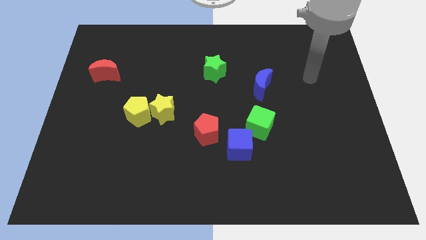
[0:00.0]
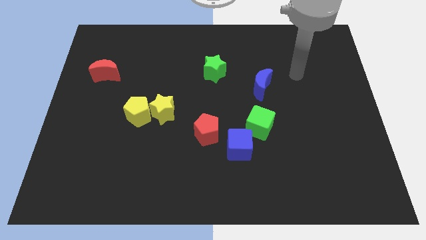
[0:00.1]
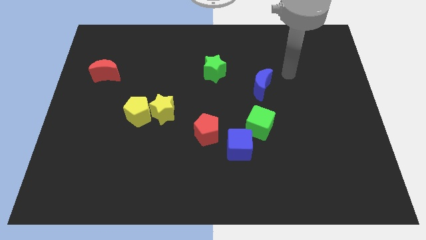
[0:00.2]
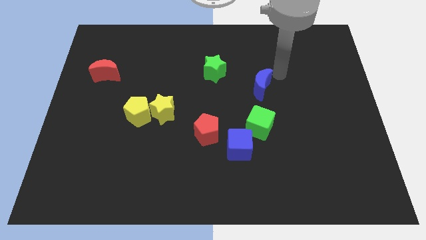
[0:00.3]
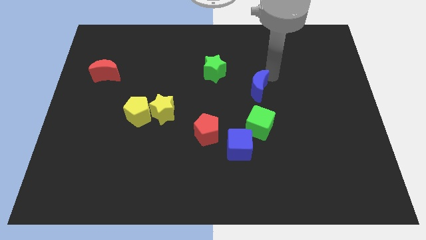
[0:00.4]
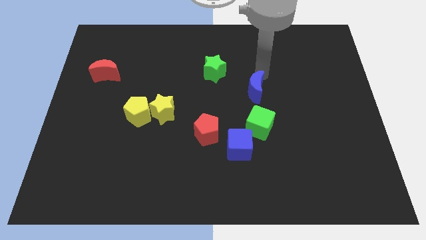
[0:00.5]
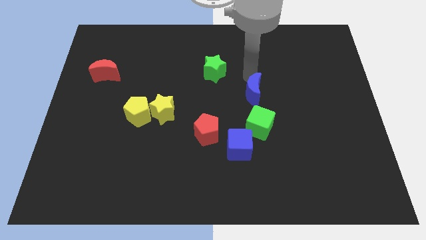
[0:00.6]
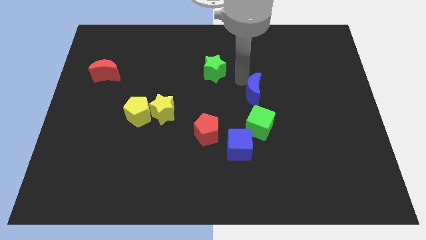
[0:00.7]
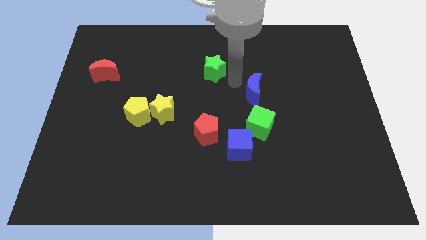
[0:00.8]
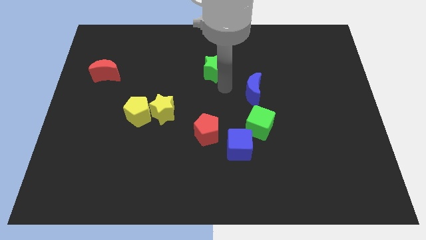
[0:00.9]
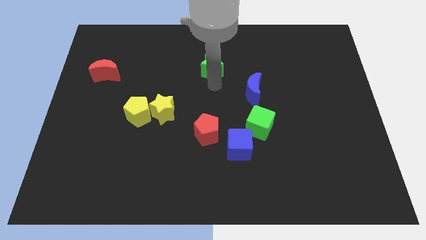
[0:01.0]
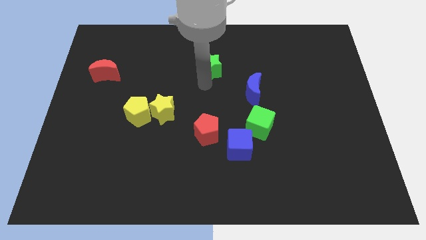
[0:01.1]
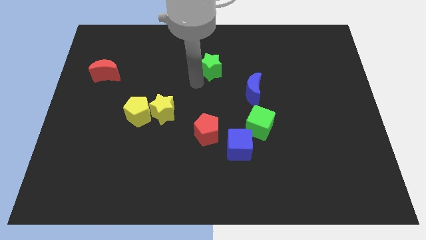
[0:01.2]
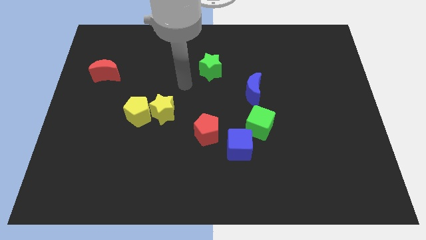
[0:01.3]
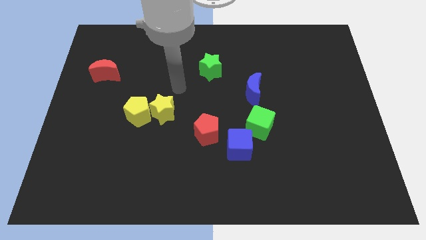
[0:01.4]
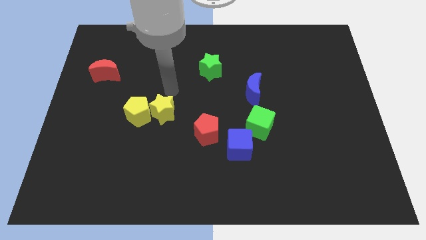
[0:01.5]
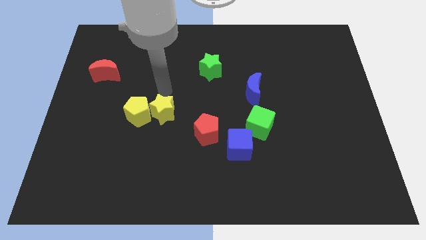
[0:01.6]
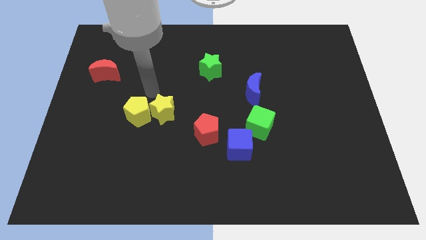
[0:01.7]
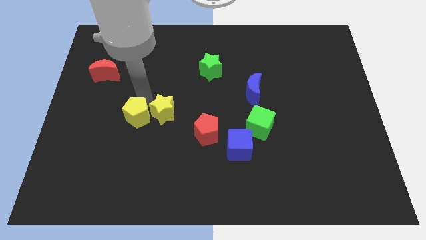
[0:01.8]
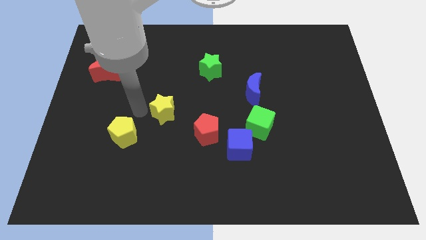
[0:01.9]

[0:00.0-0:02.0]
move the yellow star away from the yellow pentagon

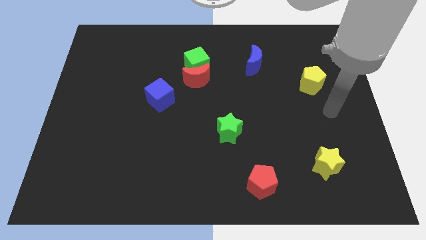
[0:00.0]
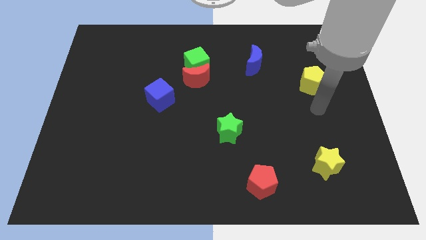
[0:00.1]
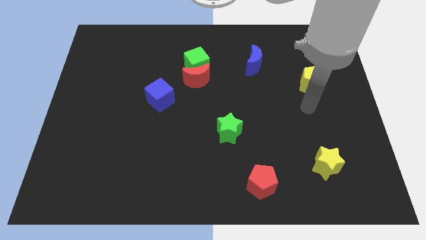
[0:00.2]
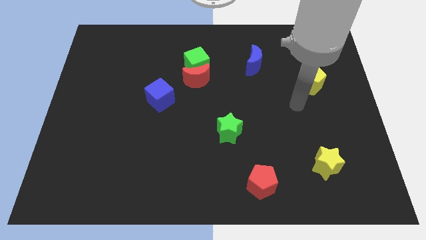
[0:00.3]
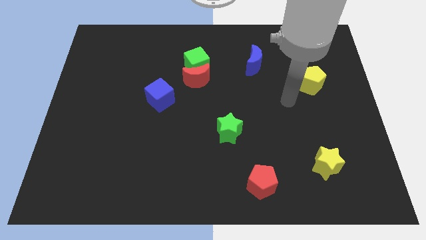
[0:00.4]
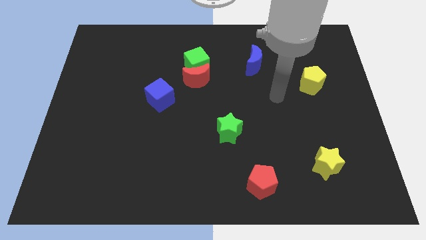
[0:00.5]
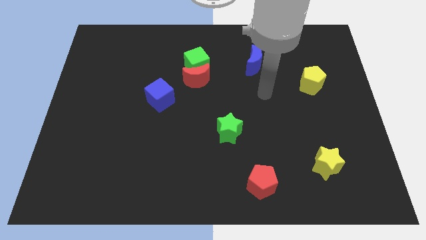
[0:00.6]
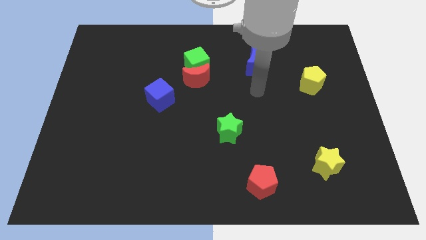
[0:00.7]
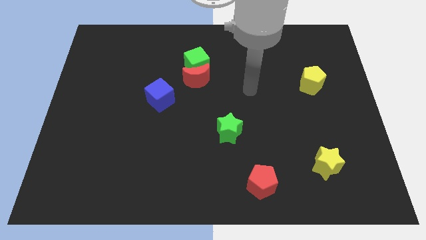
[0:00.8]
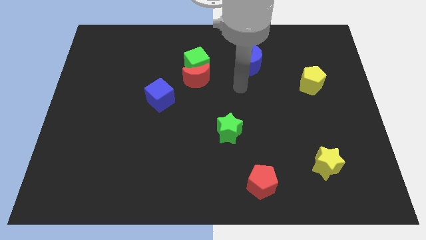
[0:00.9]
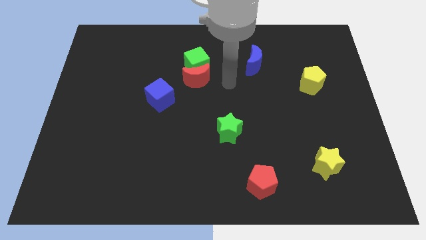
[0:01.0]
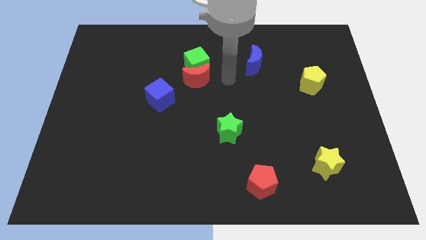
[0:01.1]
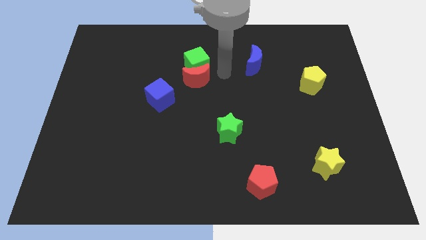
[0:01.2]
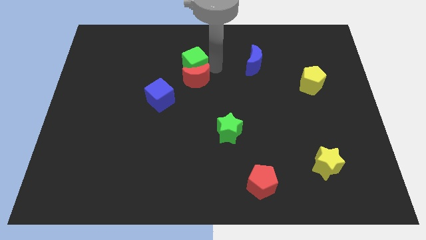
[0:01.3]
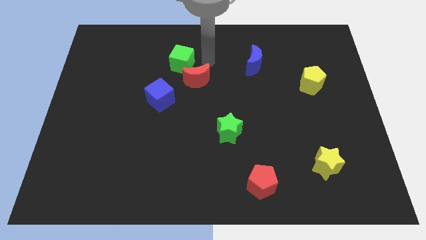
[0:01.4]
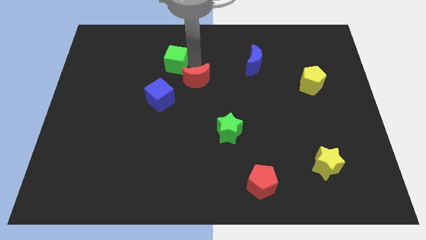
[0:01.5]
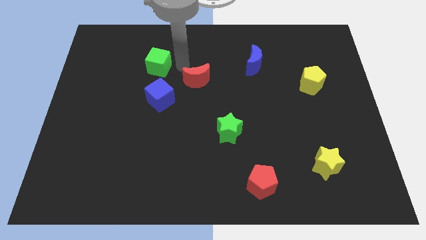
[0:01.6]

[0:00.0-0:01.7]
pull the red moon apart from the green cube

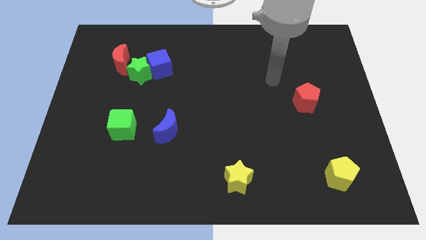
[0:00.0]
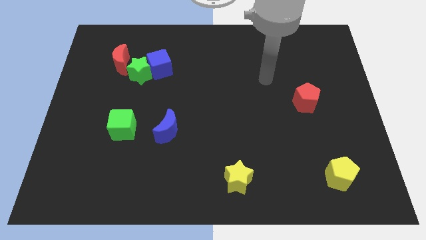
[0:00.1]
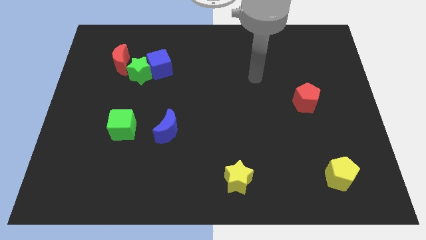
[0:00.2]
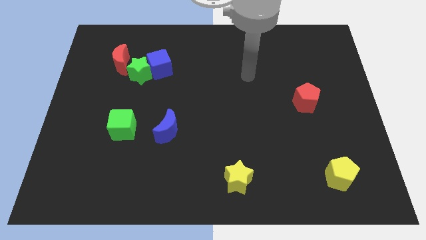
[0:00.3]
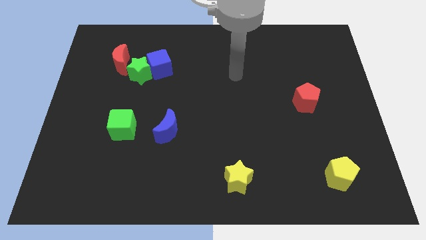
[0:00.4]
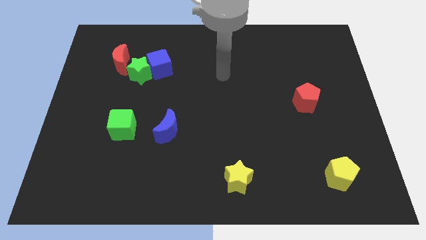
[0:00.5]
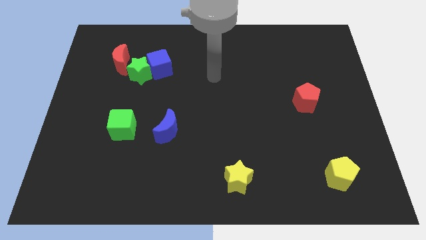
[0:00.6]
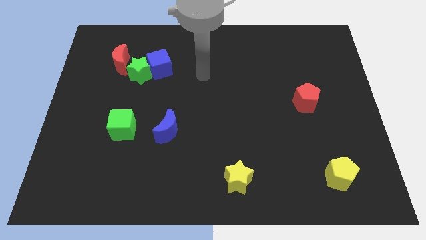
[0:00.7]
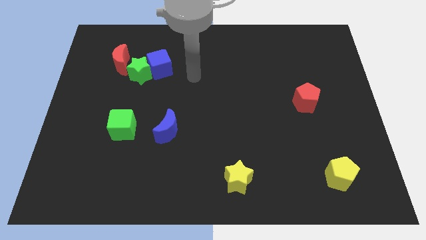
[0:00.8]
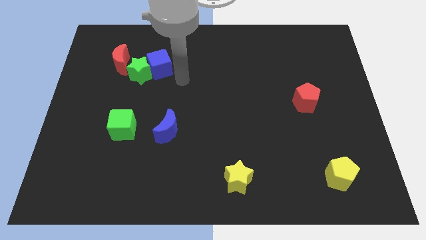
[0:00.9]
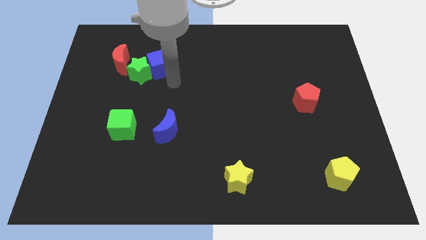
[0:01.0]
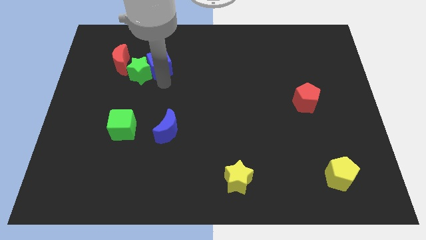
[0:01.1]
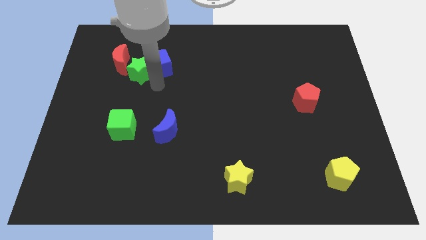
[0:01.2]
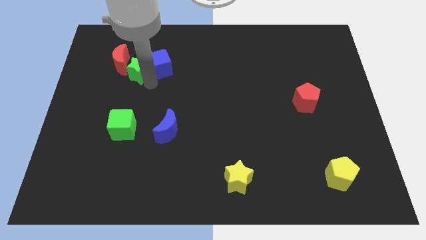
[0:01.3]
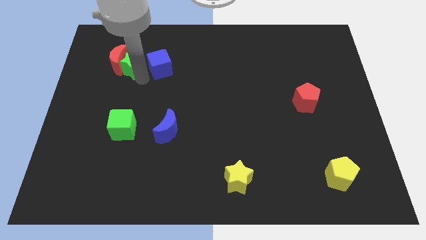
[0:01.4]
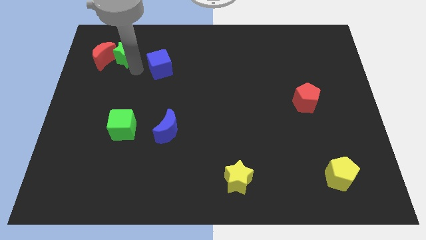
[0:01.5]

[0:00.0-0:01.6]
separate the blue cube from the green star

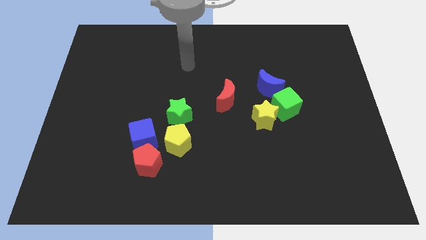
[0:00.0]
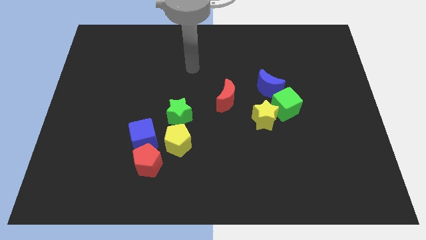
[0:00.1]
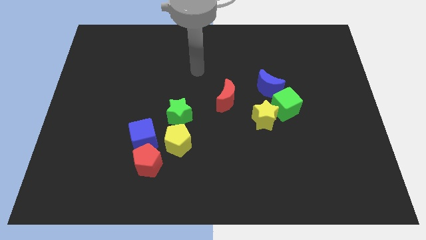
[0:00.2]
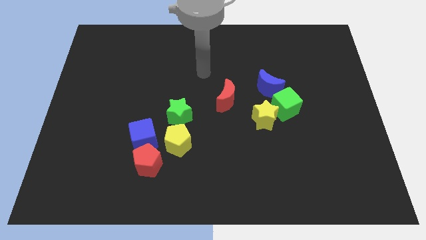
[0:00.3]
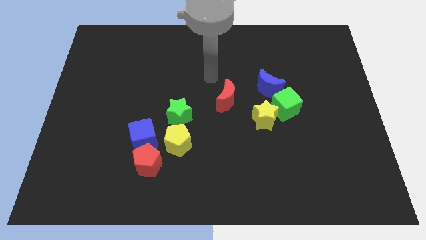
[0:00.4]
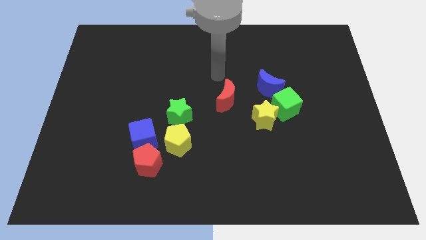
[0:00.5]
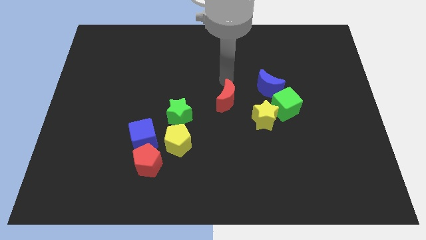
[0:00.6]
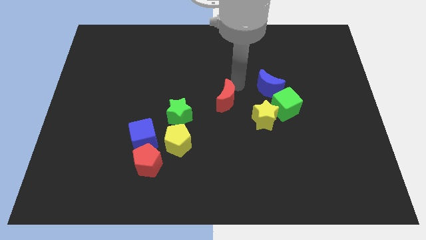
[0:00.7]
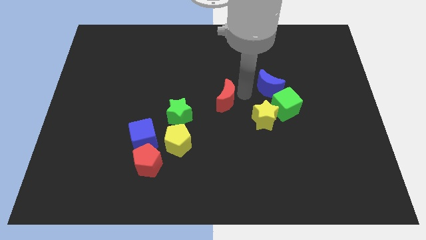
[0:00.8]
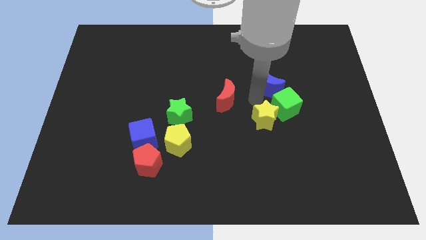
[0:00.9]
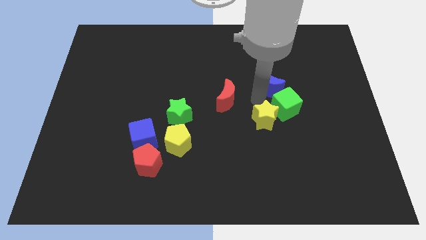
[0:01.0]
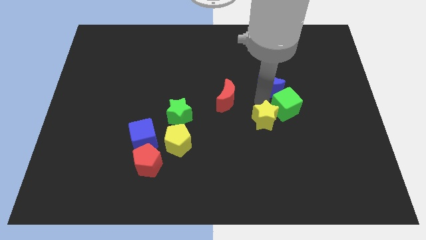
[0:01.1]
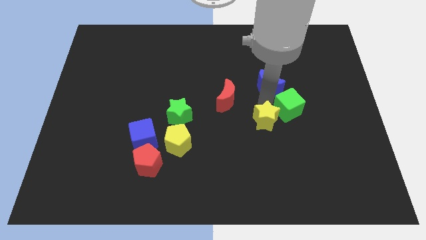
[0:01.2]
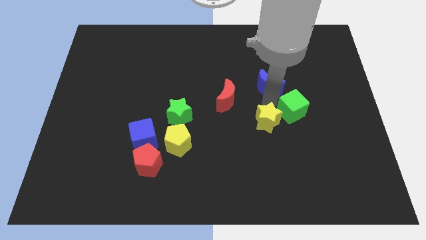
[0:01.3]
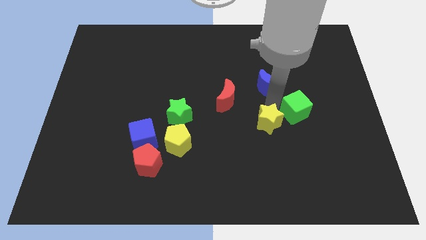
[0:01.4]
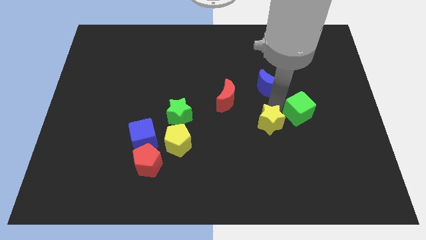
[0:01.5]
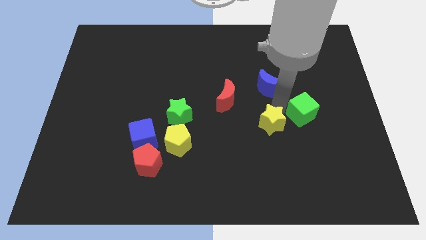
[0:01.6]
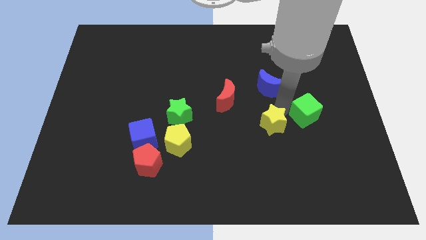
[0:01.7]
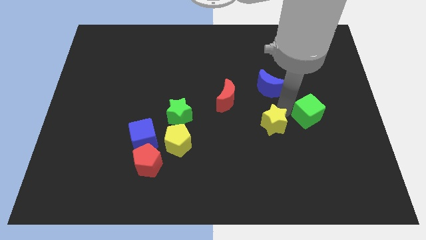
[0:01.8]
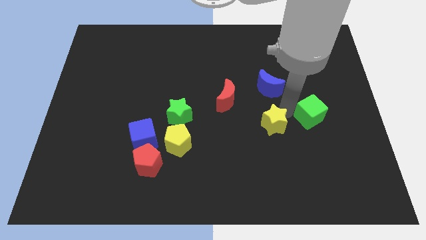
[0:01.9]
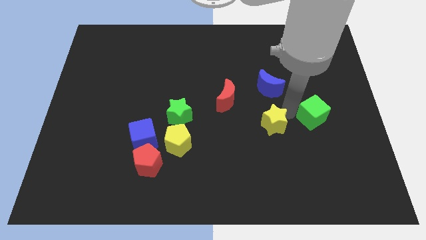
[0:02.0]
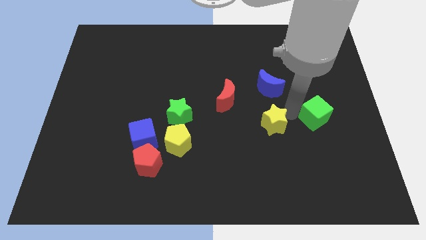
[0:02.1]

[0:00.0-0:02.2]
pull the green cube apart from the yellow star and blue moon

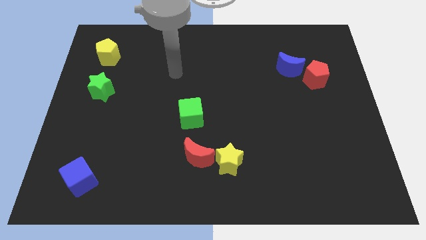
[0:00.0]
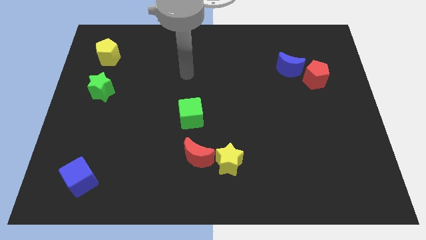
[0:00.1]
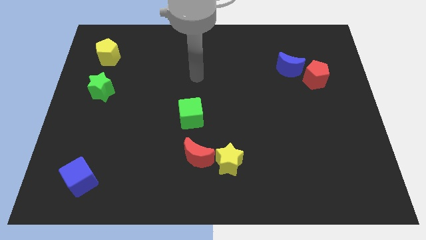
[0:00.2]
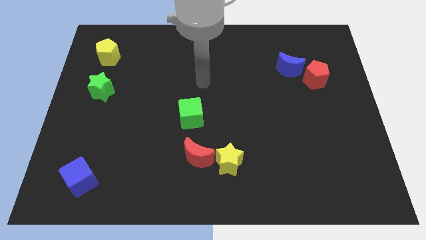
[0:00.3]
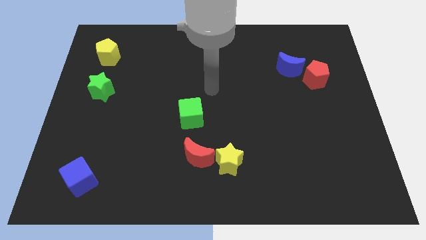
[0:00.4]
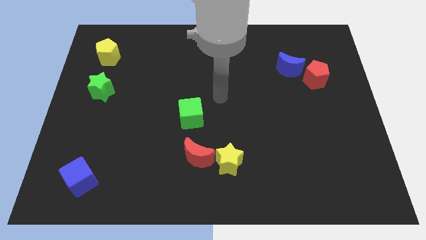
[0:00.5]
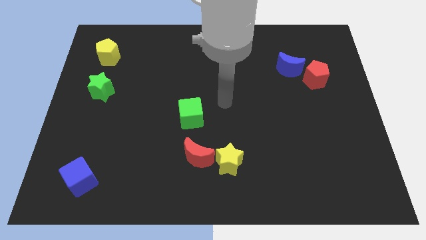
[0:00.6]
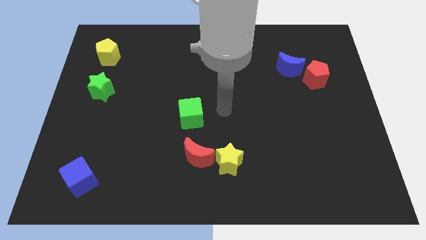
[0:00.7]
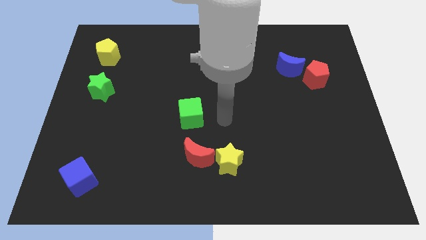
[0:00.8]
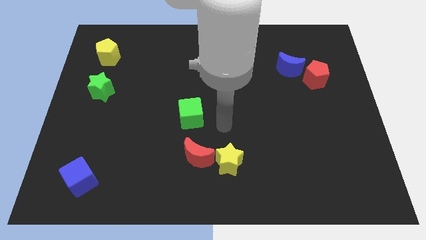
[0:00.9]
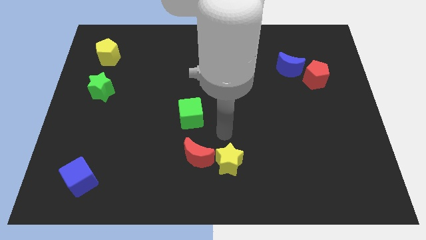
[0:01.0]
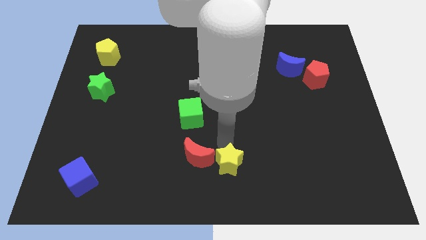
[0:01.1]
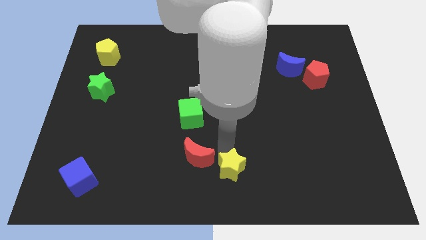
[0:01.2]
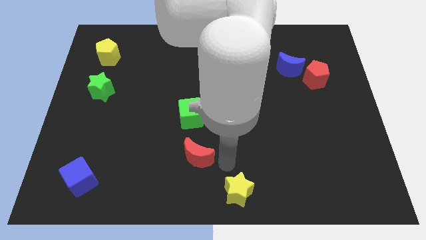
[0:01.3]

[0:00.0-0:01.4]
pull the red moon apart from the yellow star

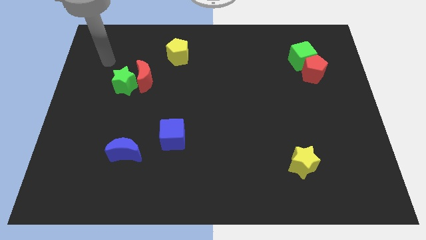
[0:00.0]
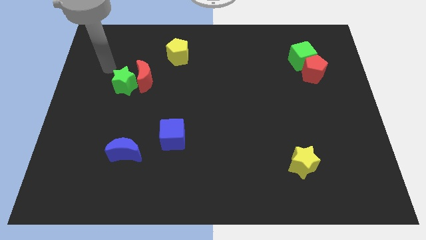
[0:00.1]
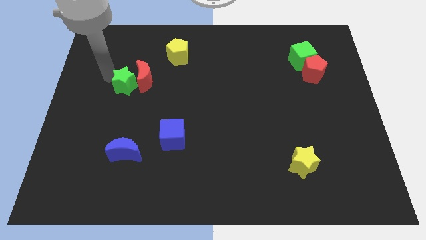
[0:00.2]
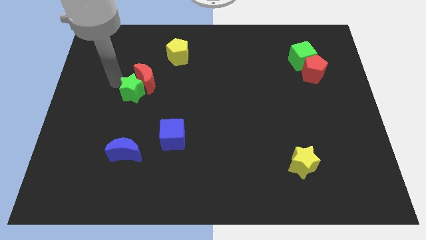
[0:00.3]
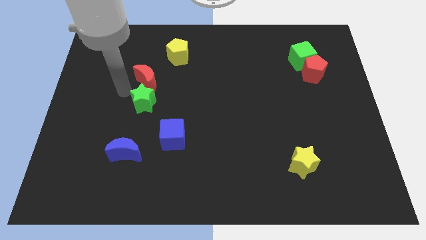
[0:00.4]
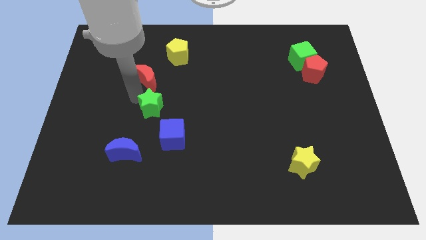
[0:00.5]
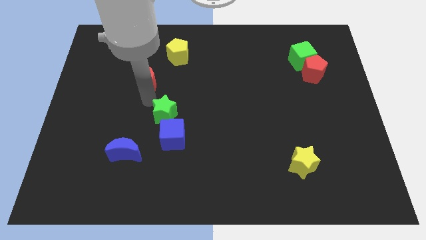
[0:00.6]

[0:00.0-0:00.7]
move the red moon away from the green star
